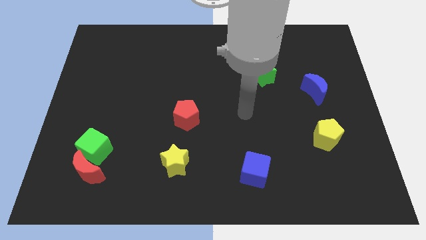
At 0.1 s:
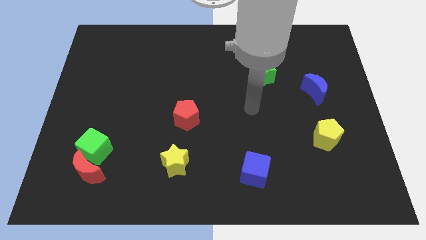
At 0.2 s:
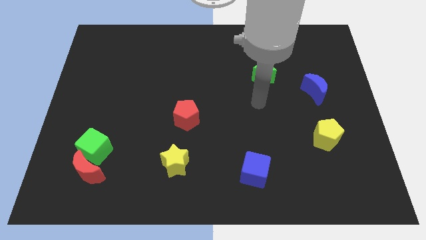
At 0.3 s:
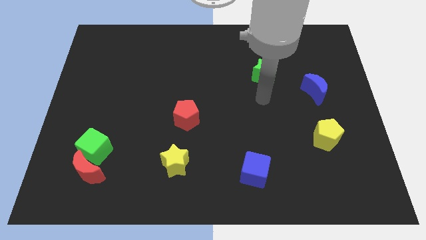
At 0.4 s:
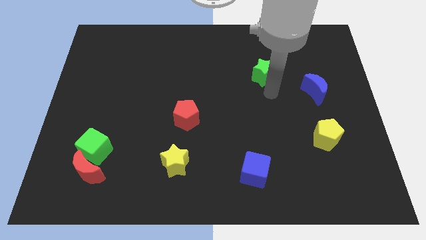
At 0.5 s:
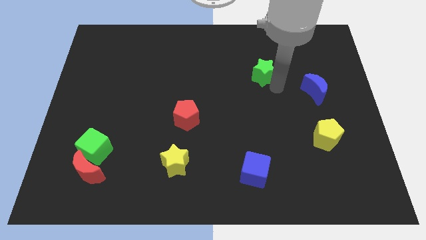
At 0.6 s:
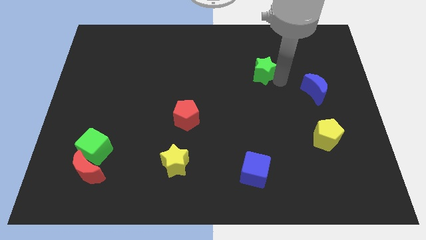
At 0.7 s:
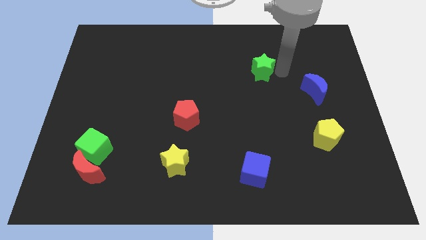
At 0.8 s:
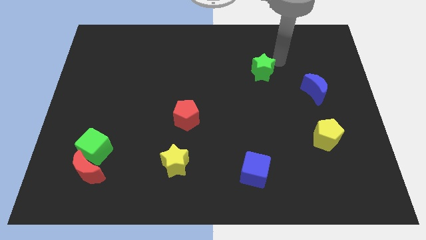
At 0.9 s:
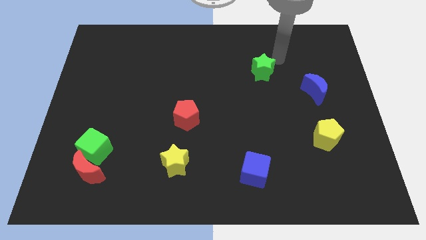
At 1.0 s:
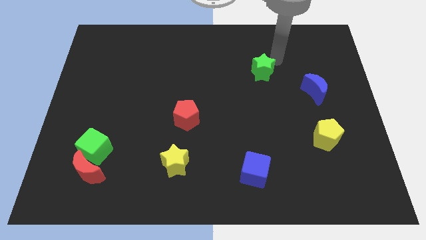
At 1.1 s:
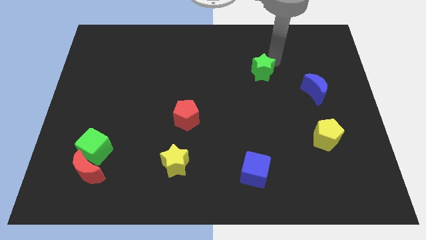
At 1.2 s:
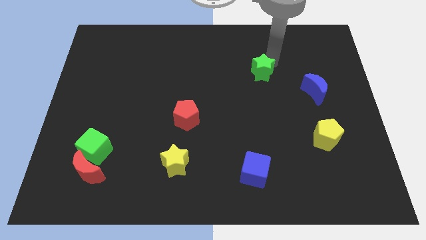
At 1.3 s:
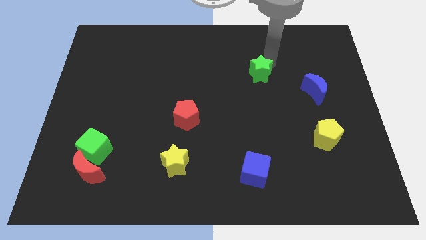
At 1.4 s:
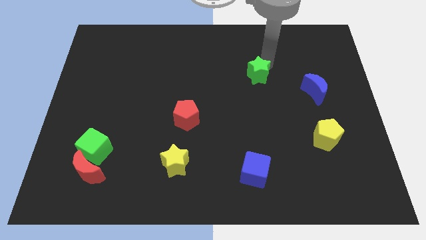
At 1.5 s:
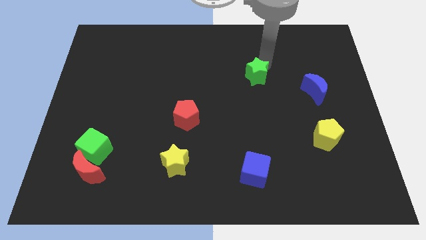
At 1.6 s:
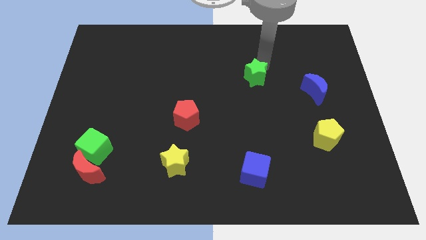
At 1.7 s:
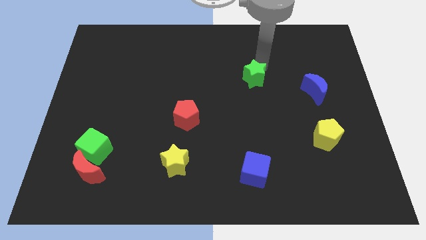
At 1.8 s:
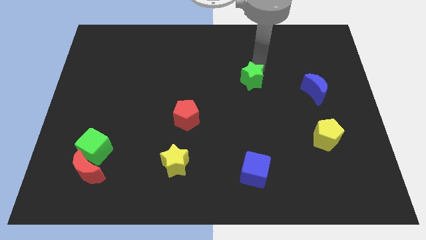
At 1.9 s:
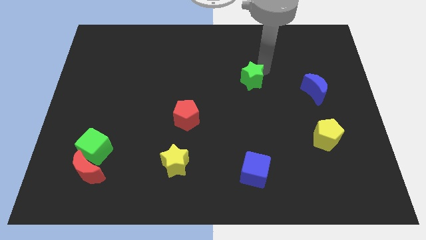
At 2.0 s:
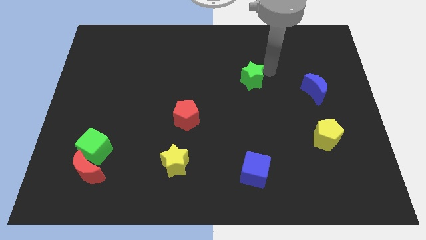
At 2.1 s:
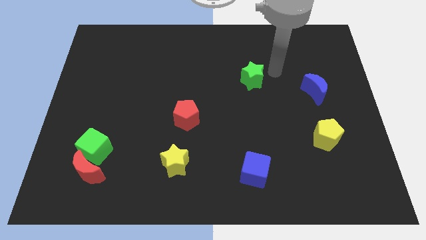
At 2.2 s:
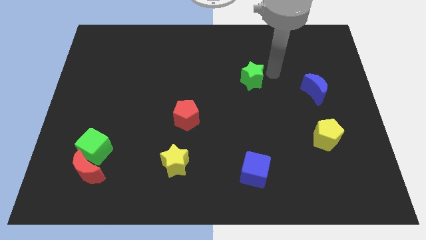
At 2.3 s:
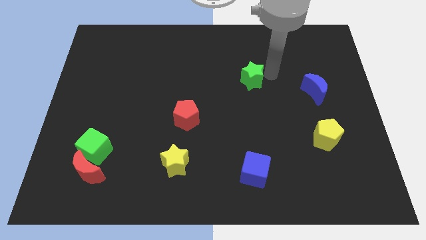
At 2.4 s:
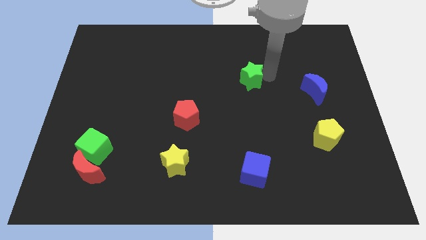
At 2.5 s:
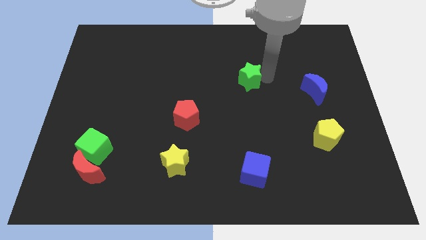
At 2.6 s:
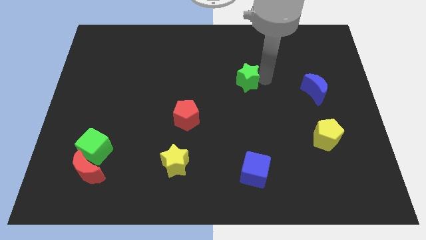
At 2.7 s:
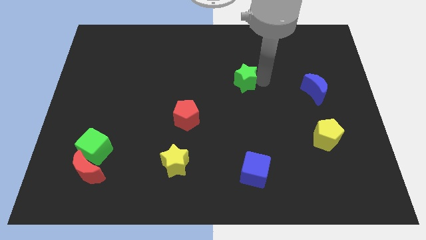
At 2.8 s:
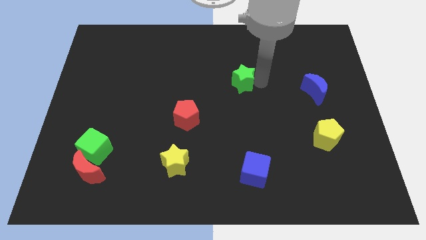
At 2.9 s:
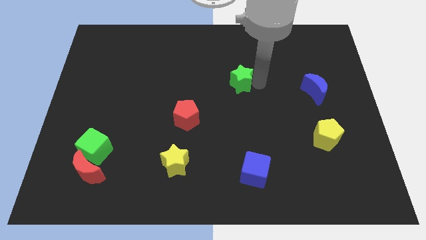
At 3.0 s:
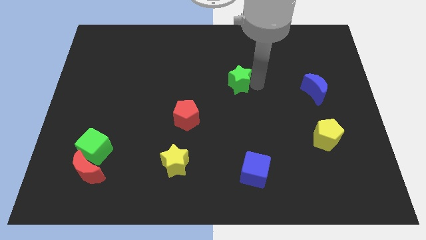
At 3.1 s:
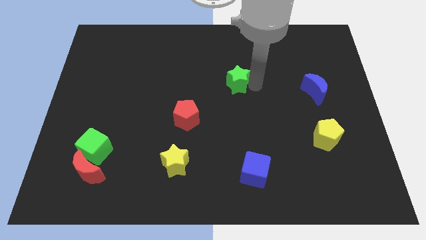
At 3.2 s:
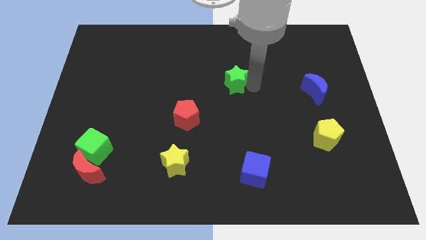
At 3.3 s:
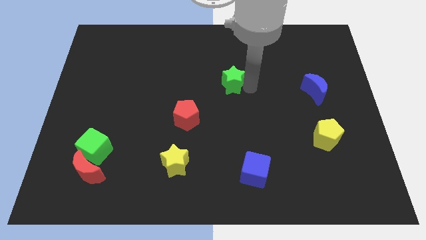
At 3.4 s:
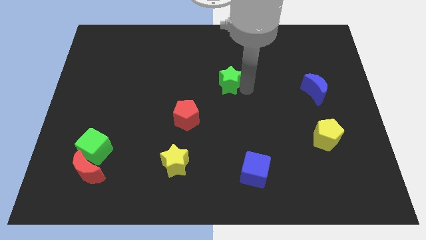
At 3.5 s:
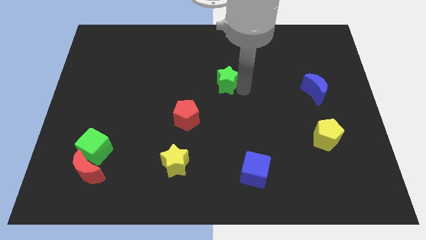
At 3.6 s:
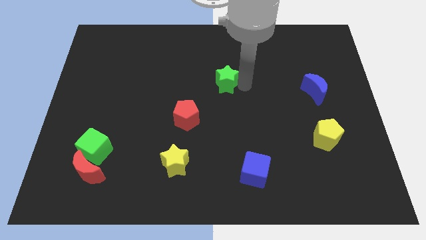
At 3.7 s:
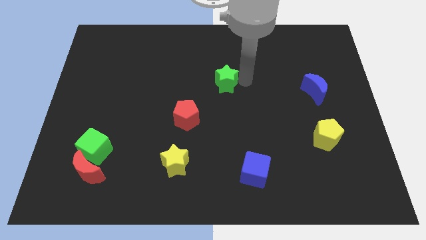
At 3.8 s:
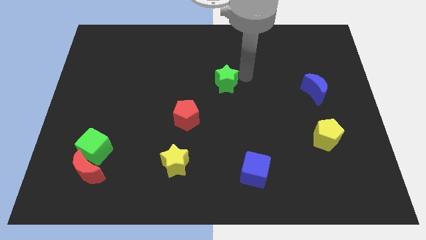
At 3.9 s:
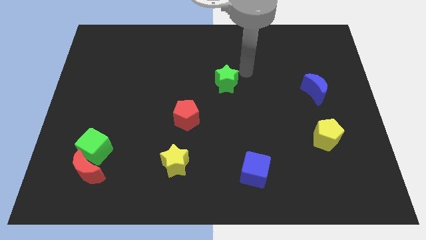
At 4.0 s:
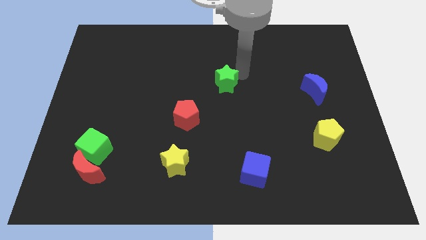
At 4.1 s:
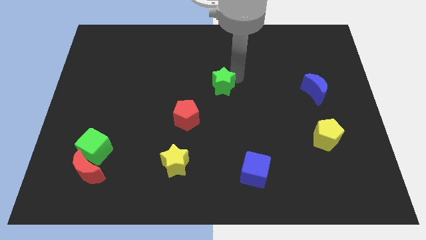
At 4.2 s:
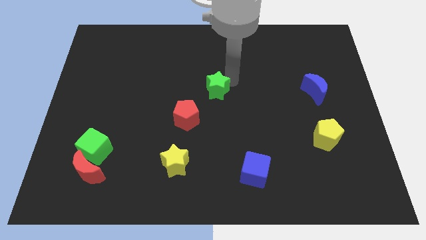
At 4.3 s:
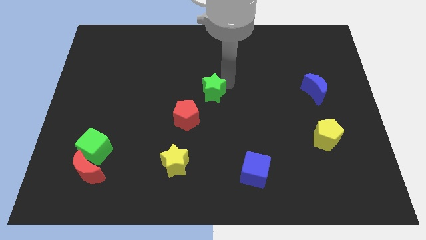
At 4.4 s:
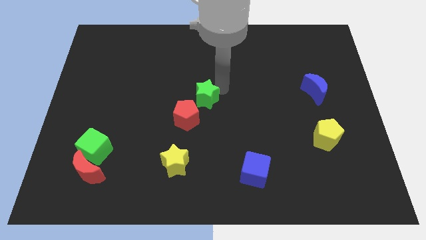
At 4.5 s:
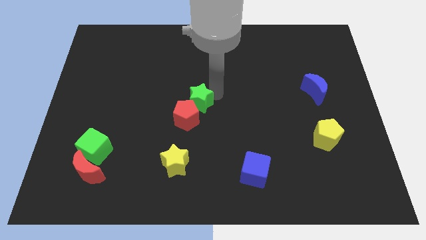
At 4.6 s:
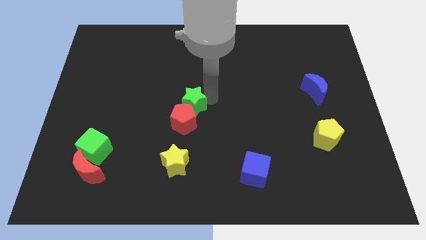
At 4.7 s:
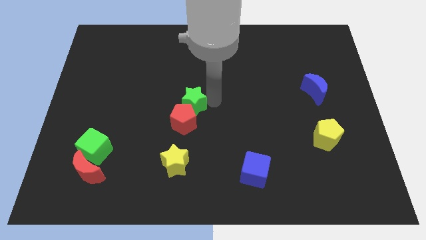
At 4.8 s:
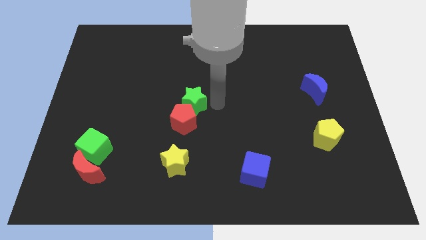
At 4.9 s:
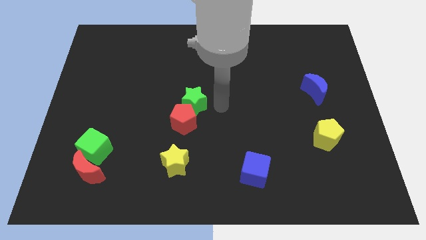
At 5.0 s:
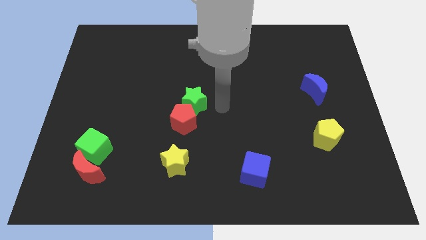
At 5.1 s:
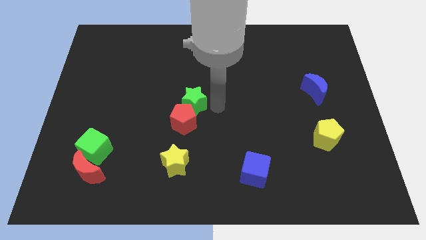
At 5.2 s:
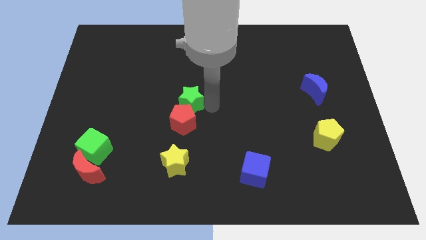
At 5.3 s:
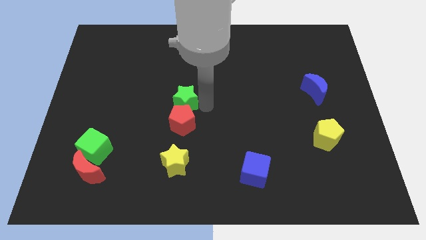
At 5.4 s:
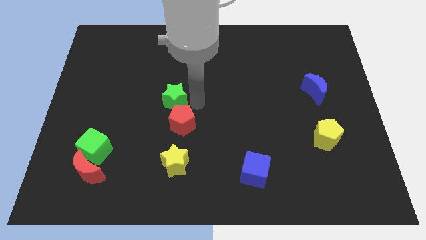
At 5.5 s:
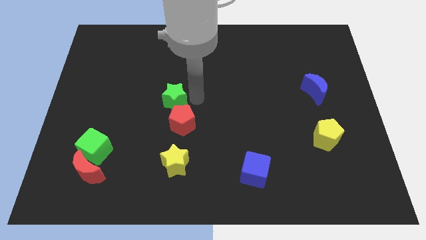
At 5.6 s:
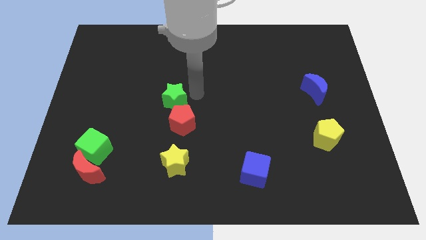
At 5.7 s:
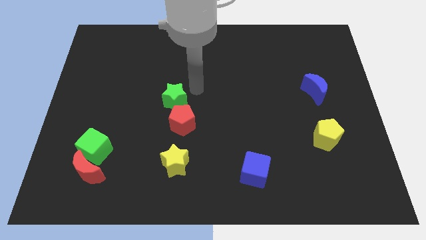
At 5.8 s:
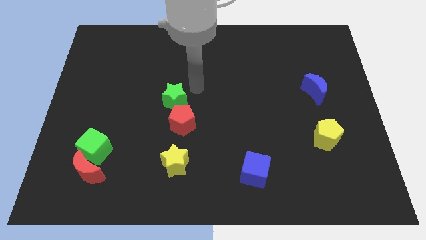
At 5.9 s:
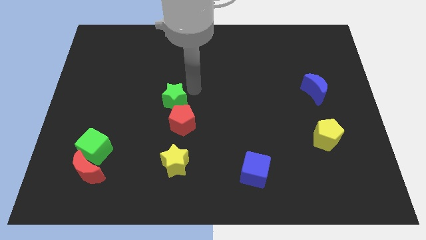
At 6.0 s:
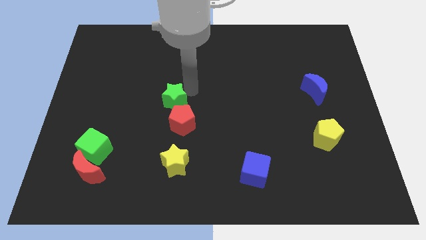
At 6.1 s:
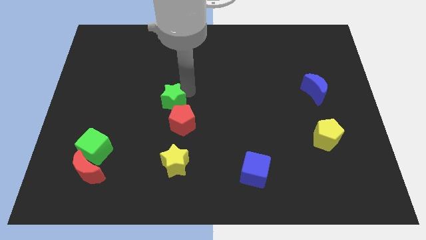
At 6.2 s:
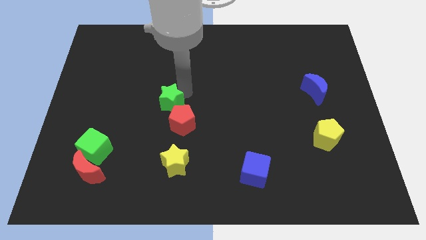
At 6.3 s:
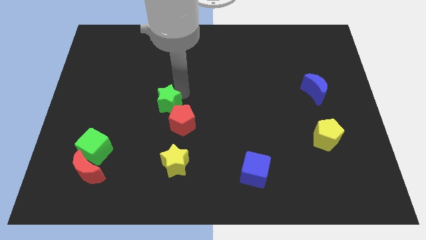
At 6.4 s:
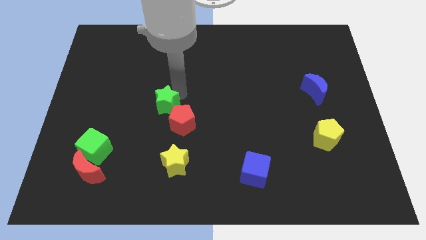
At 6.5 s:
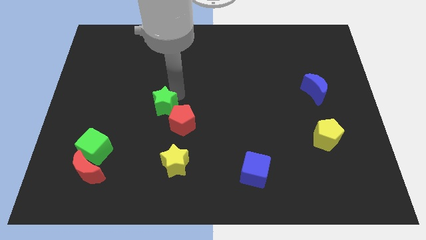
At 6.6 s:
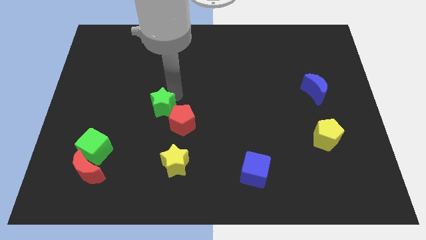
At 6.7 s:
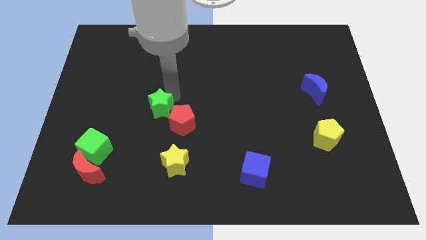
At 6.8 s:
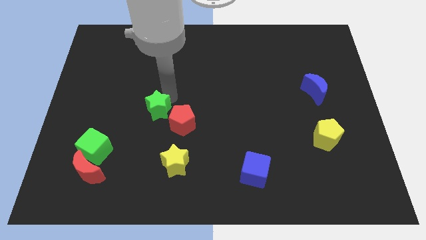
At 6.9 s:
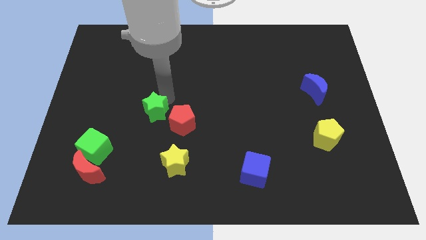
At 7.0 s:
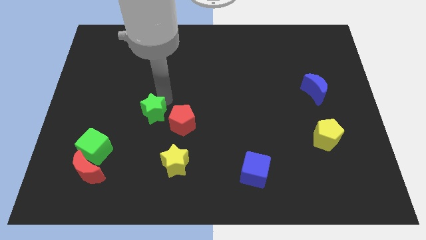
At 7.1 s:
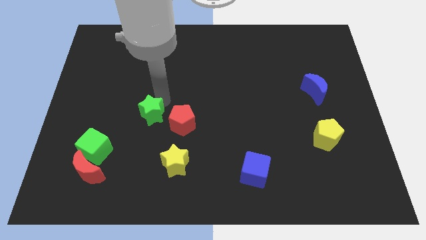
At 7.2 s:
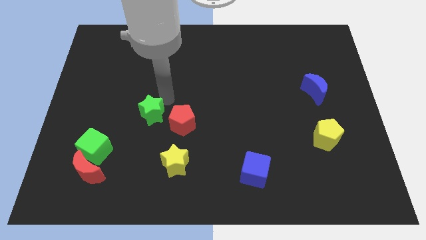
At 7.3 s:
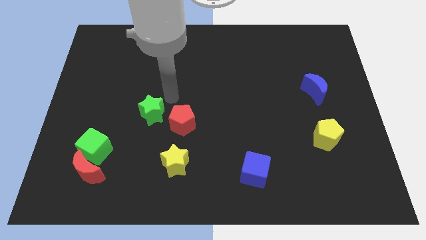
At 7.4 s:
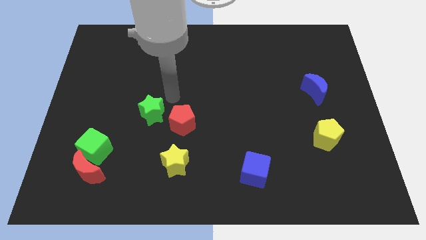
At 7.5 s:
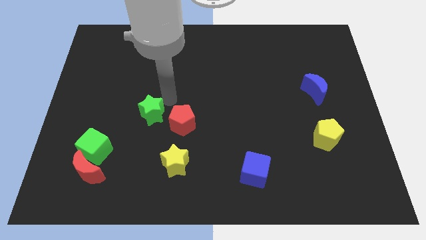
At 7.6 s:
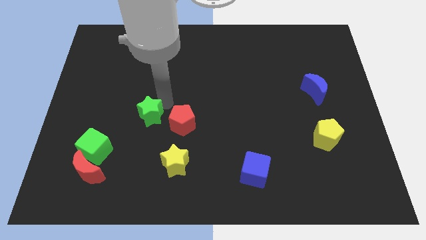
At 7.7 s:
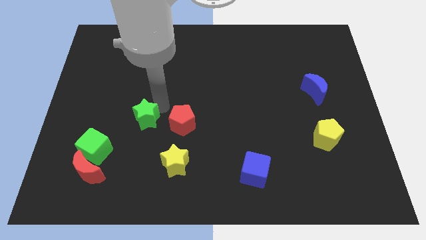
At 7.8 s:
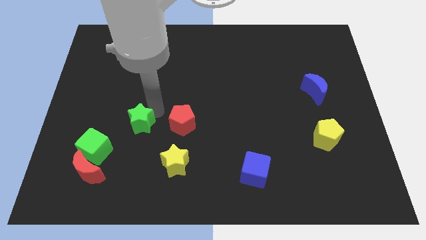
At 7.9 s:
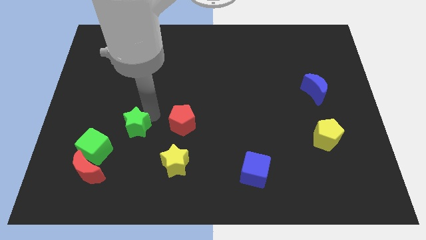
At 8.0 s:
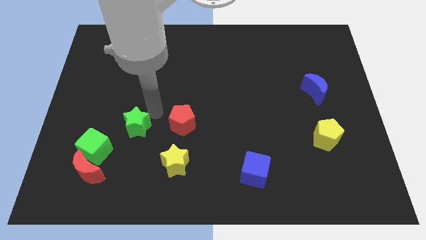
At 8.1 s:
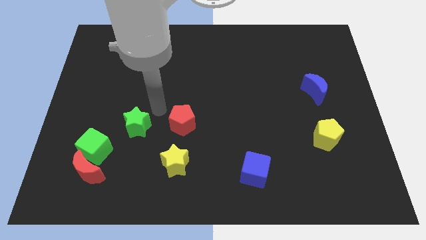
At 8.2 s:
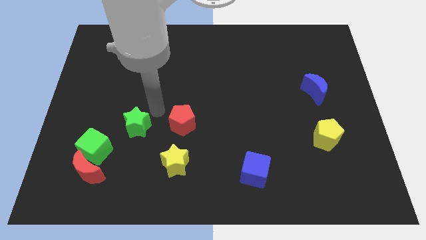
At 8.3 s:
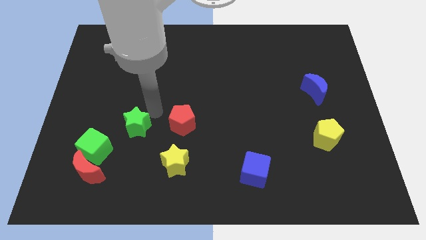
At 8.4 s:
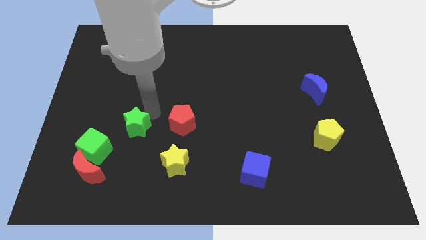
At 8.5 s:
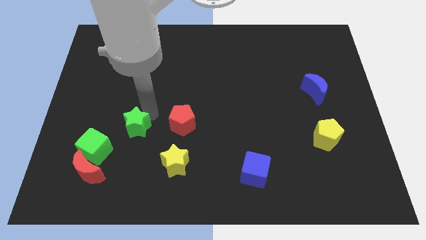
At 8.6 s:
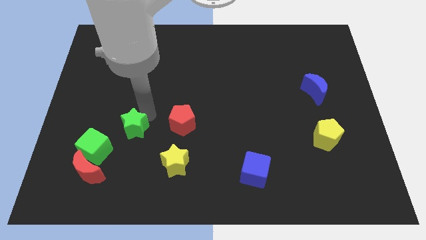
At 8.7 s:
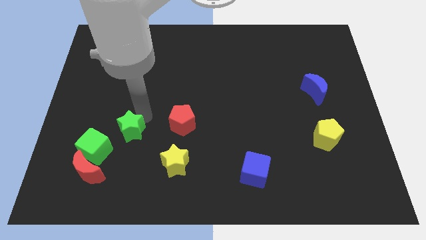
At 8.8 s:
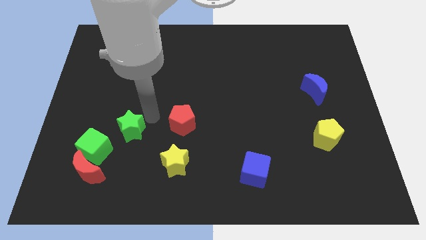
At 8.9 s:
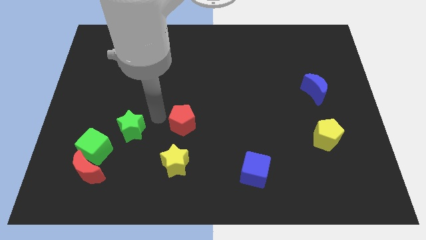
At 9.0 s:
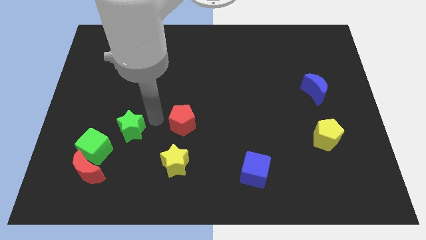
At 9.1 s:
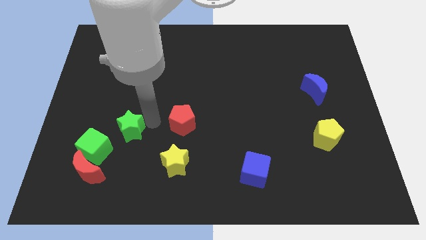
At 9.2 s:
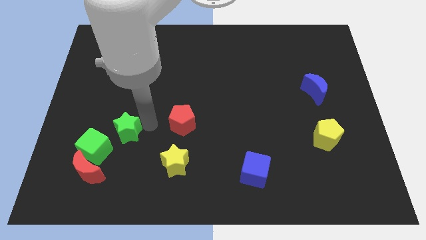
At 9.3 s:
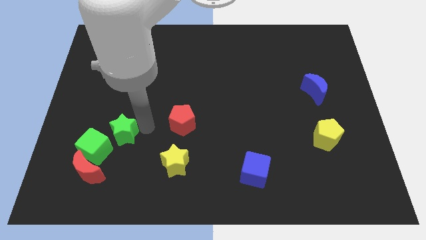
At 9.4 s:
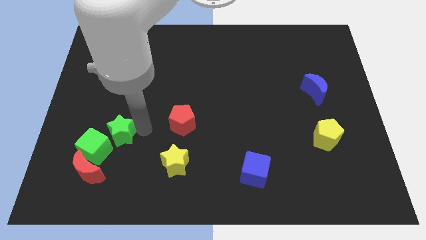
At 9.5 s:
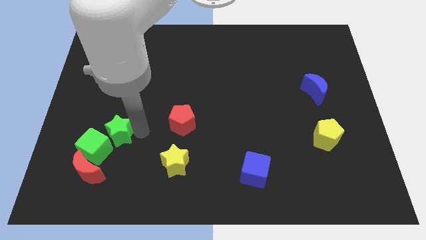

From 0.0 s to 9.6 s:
put the green star towards the green cube
